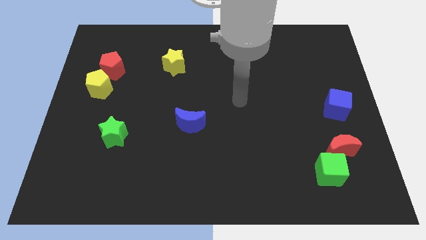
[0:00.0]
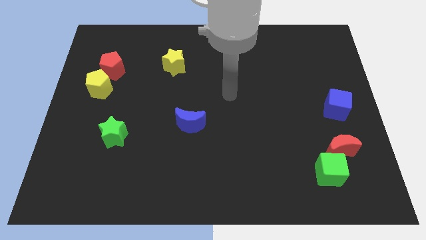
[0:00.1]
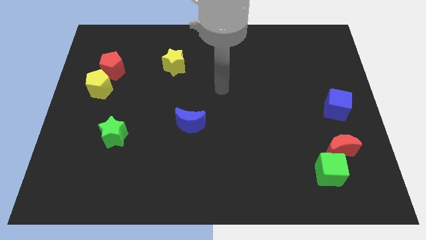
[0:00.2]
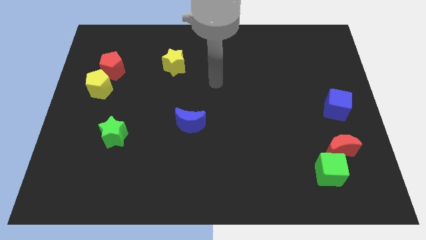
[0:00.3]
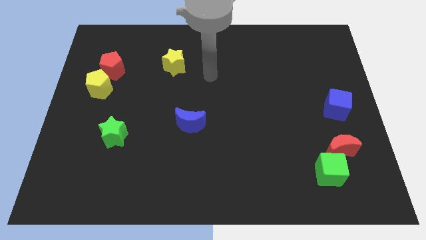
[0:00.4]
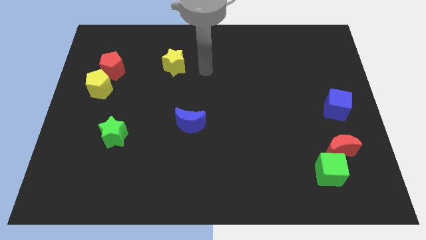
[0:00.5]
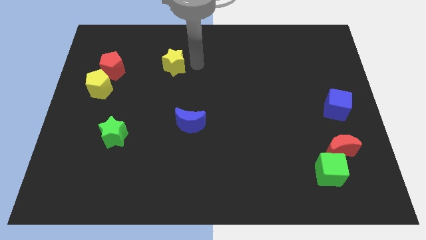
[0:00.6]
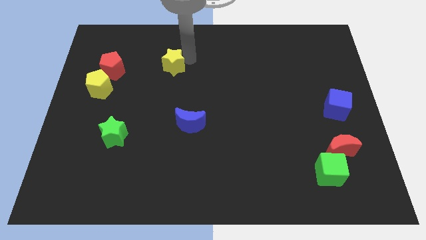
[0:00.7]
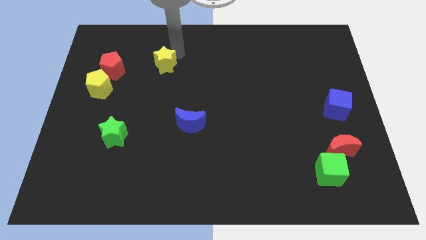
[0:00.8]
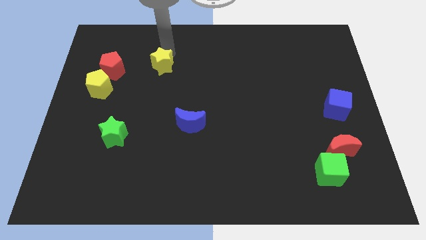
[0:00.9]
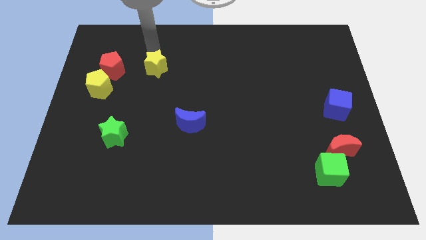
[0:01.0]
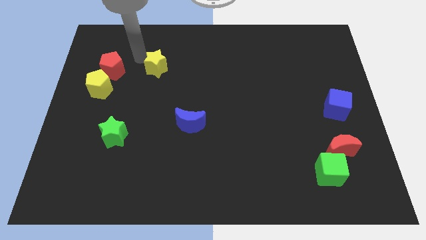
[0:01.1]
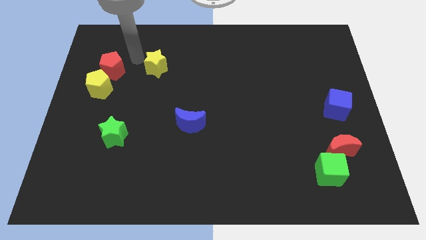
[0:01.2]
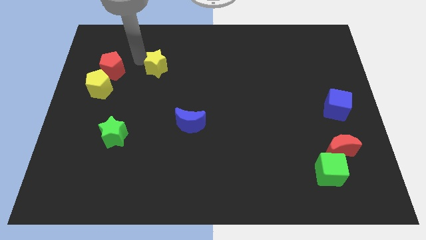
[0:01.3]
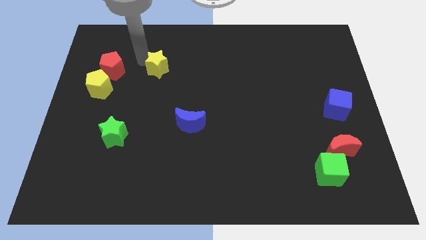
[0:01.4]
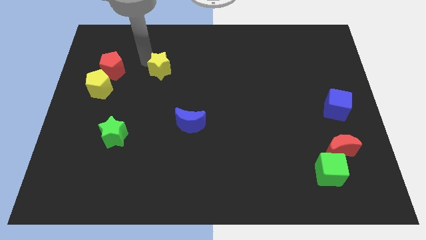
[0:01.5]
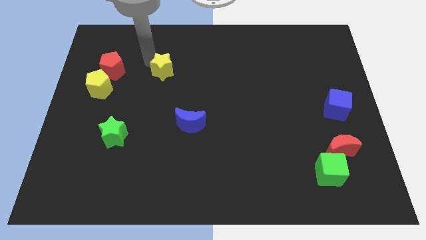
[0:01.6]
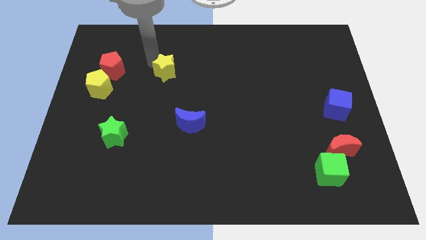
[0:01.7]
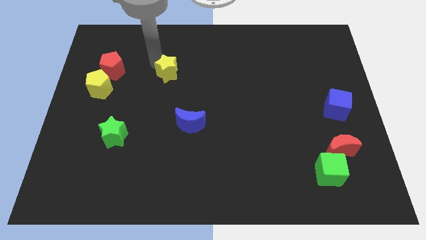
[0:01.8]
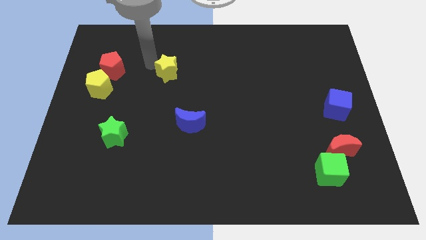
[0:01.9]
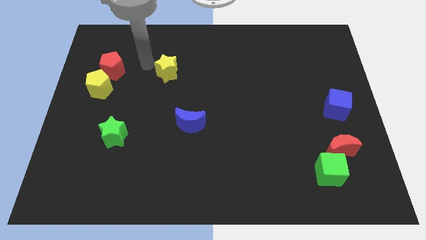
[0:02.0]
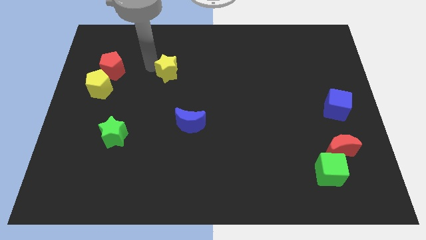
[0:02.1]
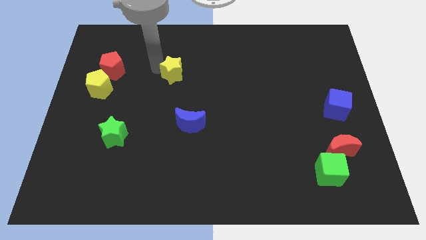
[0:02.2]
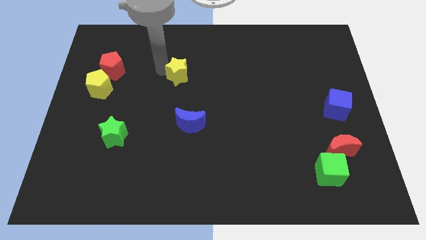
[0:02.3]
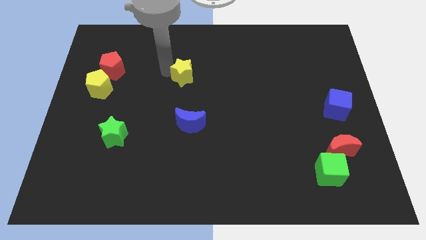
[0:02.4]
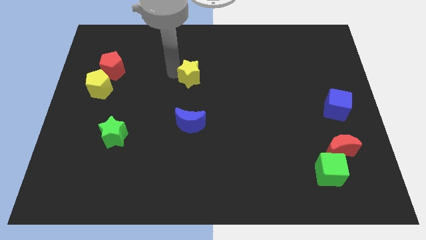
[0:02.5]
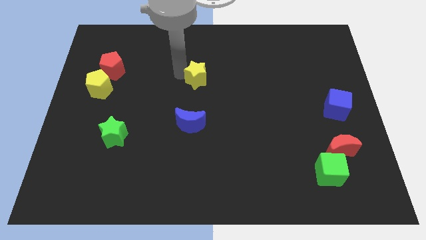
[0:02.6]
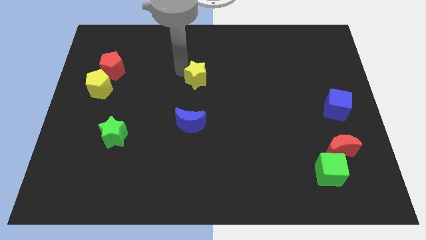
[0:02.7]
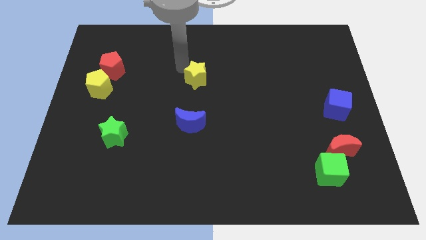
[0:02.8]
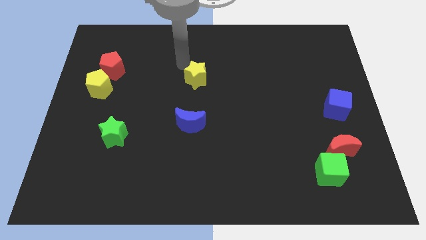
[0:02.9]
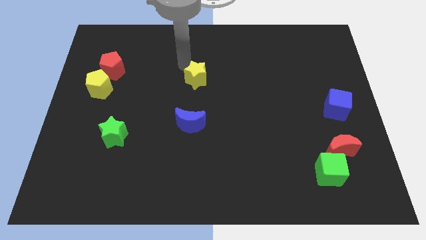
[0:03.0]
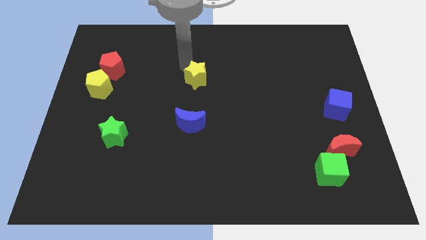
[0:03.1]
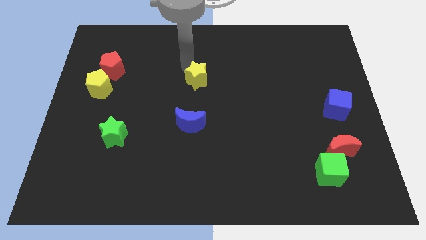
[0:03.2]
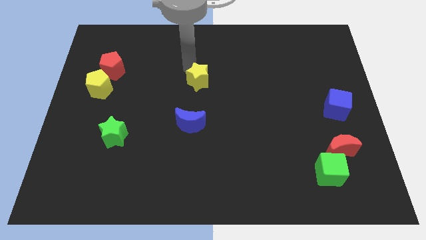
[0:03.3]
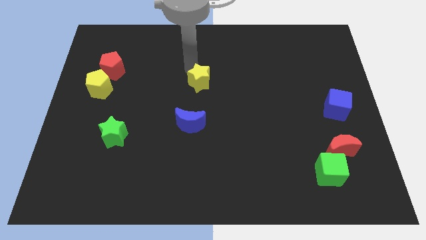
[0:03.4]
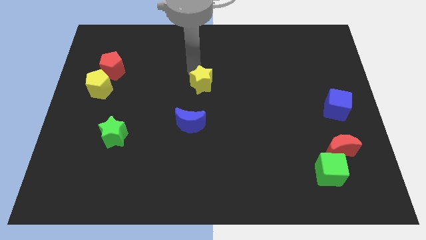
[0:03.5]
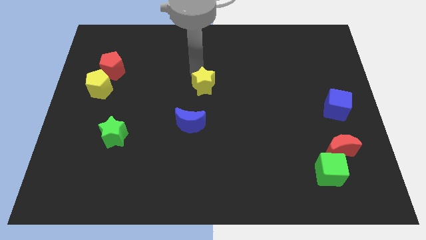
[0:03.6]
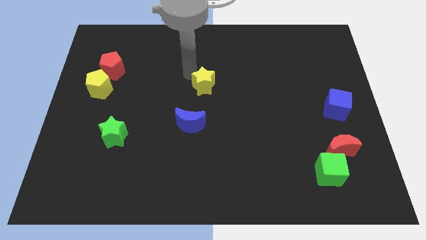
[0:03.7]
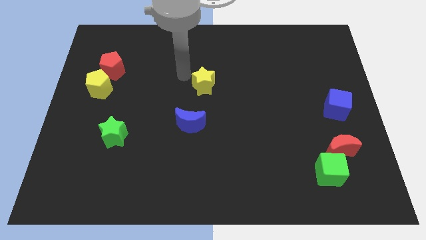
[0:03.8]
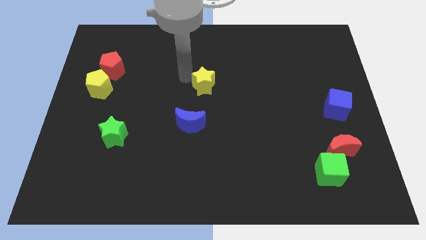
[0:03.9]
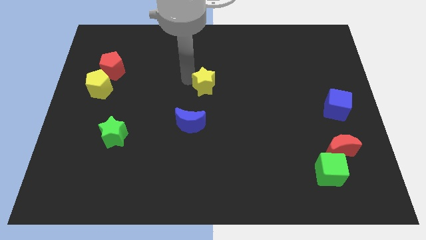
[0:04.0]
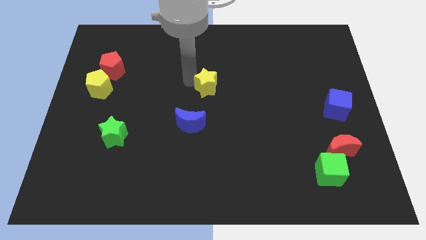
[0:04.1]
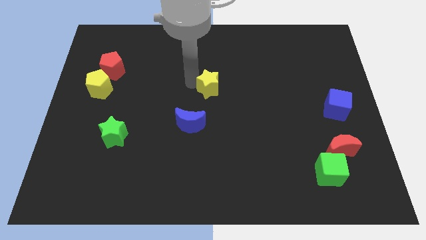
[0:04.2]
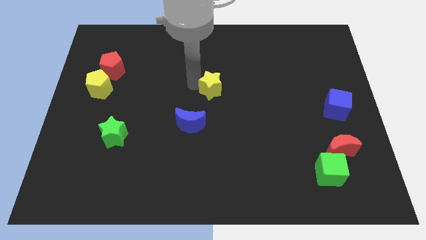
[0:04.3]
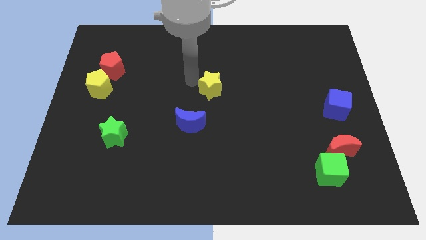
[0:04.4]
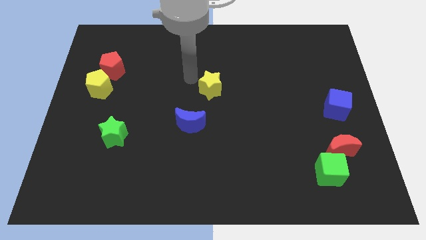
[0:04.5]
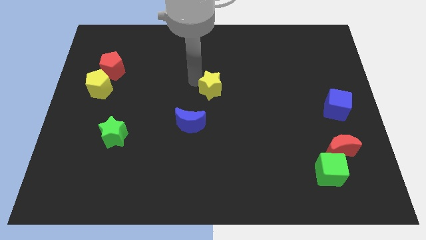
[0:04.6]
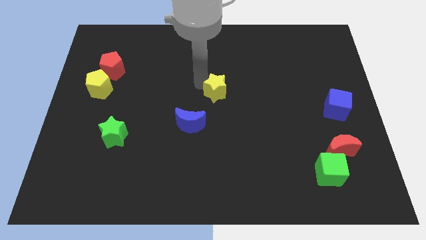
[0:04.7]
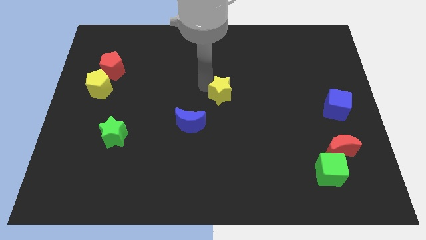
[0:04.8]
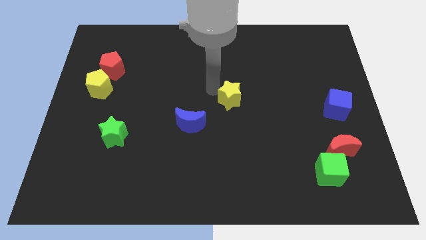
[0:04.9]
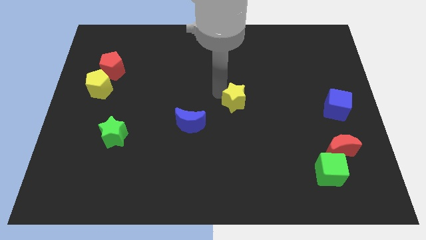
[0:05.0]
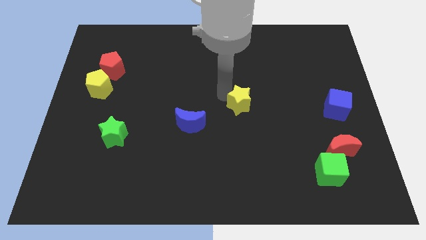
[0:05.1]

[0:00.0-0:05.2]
move the yellow star down and to the right

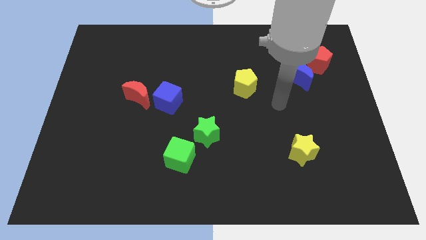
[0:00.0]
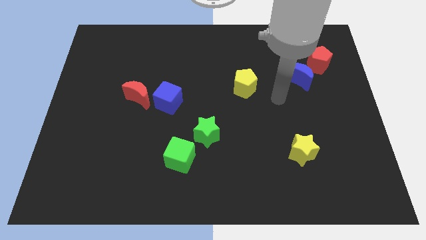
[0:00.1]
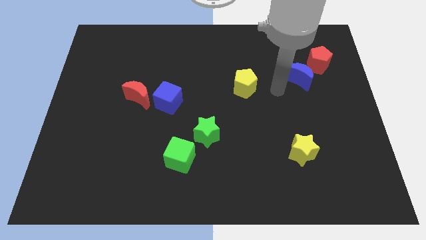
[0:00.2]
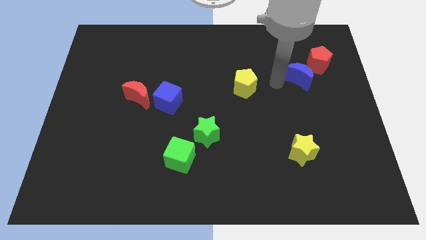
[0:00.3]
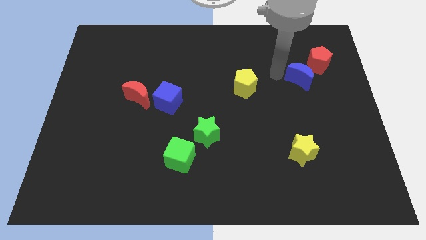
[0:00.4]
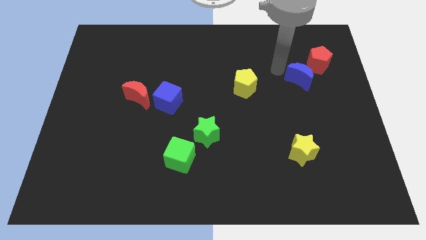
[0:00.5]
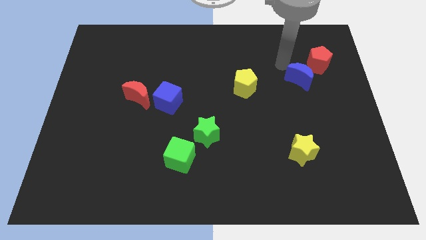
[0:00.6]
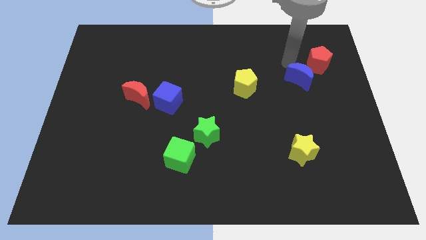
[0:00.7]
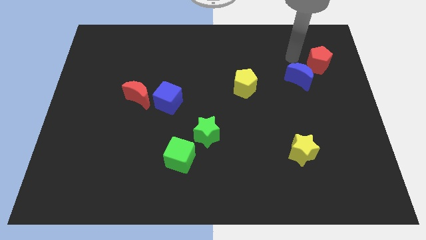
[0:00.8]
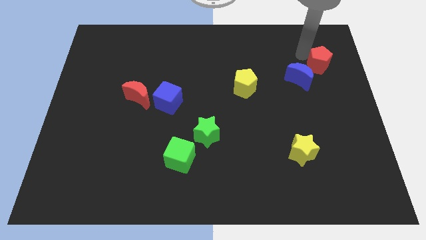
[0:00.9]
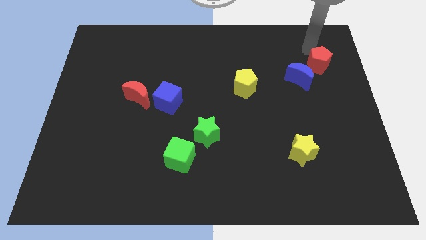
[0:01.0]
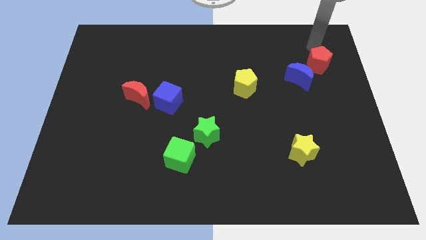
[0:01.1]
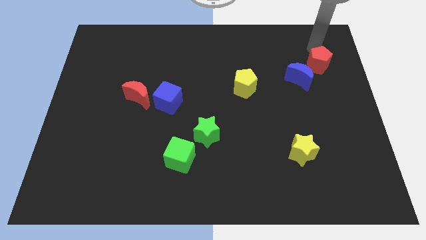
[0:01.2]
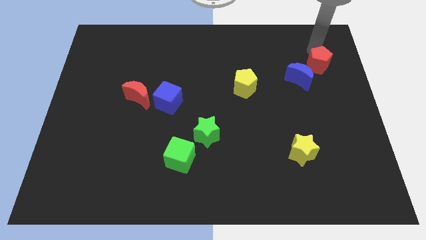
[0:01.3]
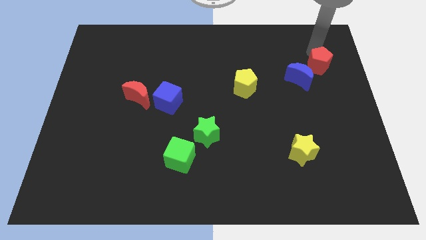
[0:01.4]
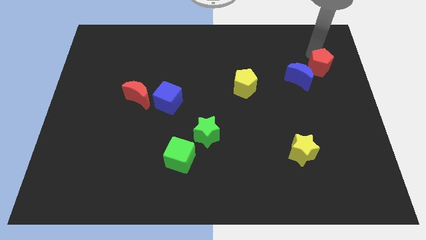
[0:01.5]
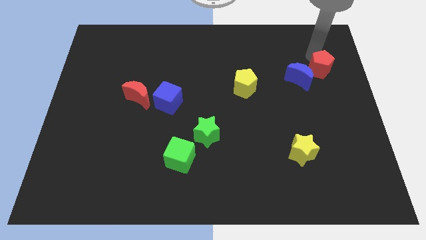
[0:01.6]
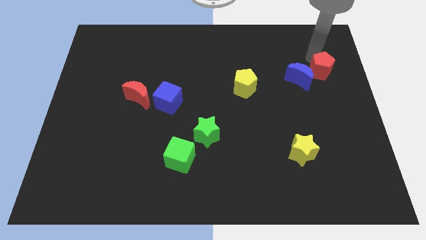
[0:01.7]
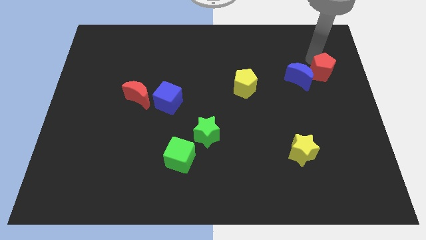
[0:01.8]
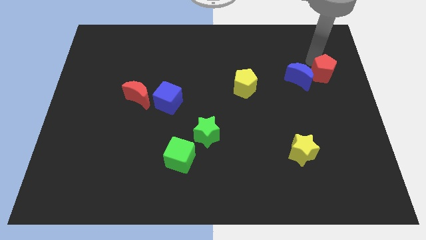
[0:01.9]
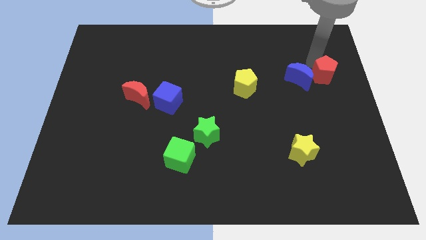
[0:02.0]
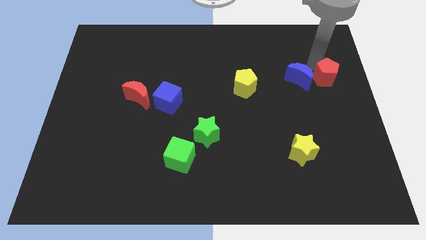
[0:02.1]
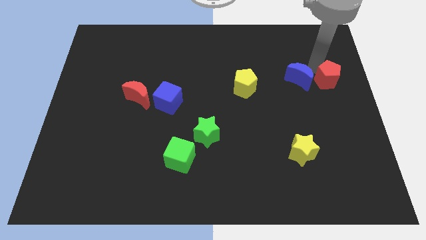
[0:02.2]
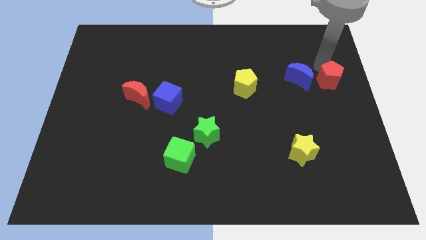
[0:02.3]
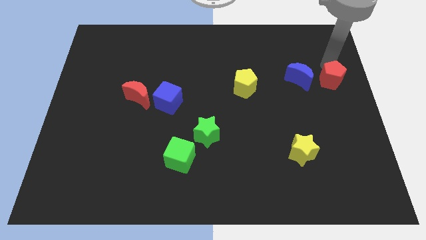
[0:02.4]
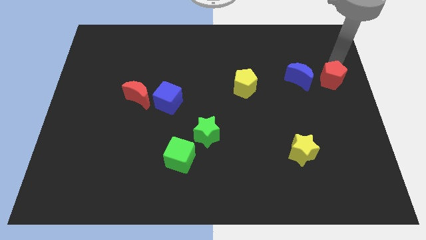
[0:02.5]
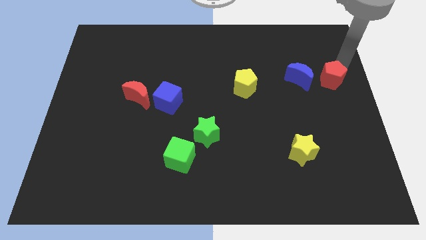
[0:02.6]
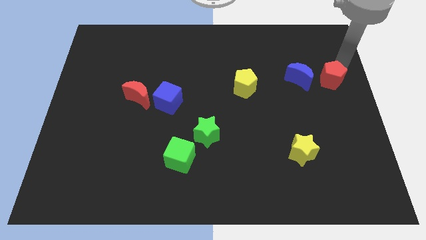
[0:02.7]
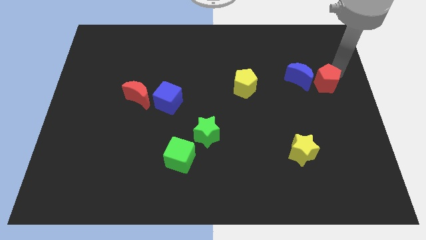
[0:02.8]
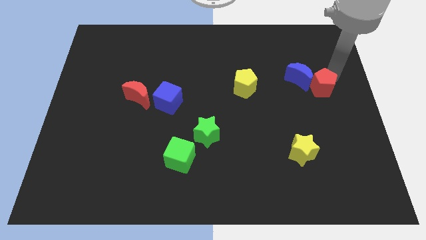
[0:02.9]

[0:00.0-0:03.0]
push the red pentagon down a bit
